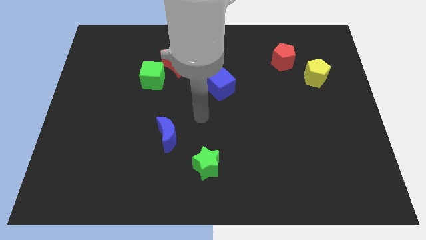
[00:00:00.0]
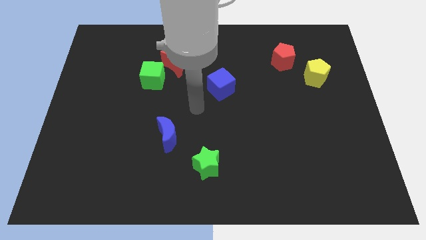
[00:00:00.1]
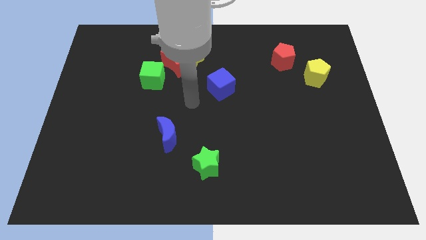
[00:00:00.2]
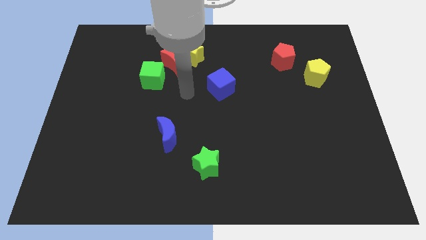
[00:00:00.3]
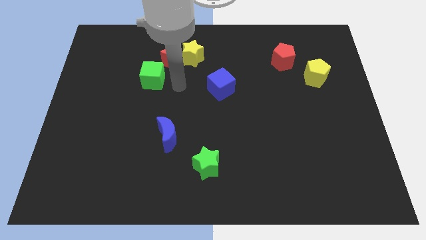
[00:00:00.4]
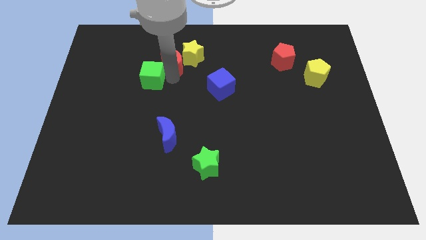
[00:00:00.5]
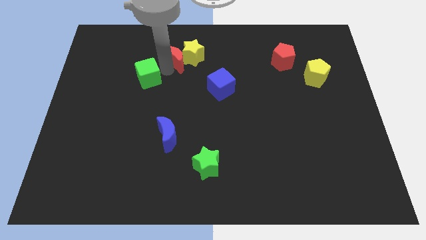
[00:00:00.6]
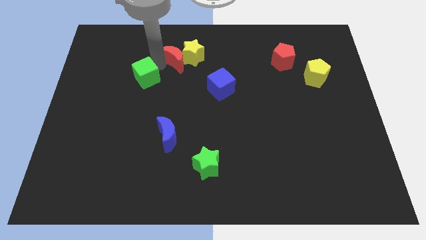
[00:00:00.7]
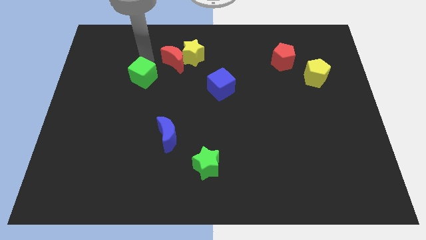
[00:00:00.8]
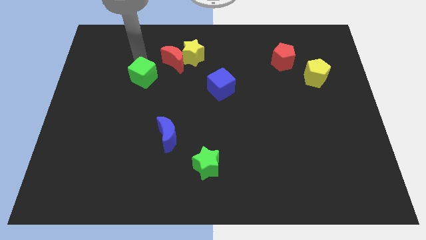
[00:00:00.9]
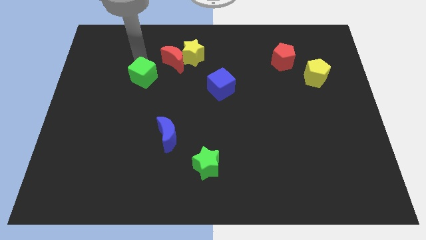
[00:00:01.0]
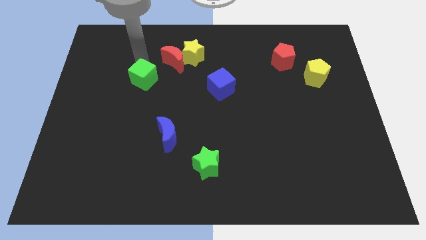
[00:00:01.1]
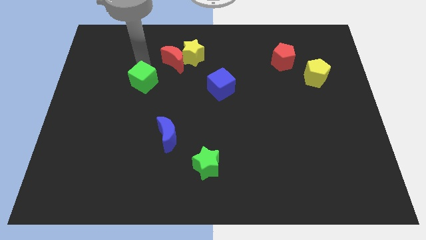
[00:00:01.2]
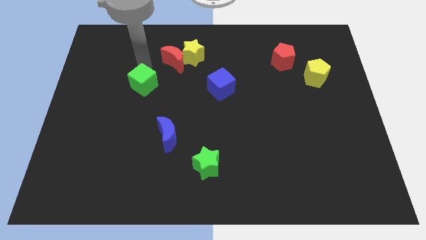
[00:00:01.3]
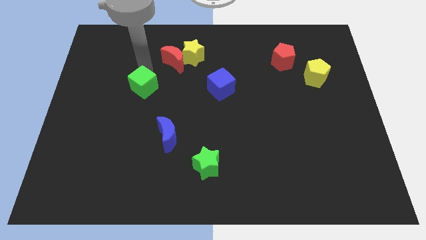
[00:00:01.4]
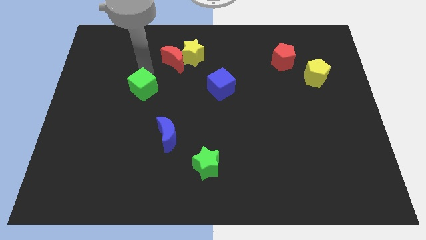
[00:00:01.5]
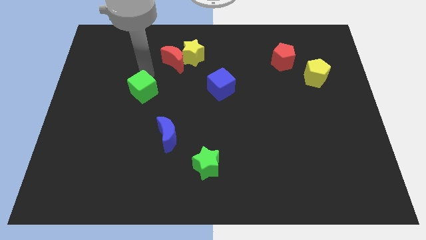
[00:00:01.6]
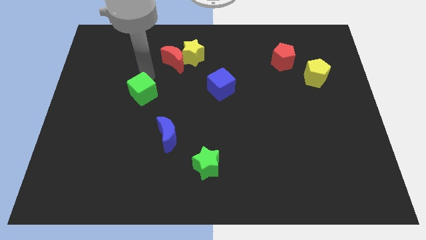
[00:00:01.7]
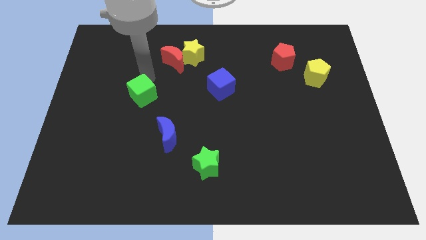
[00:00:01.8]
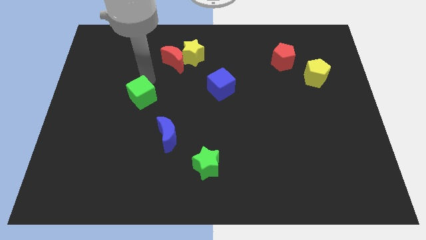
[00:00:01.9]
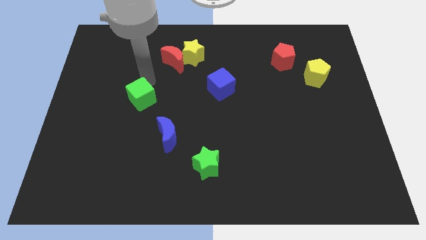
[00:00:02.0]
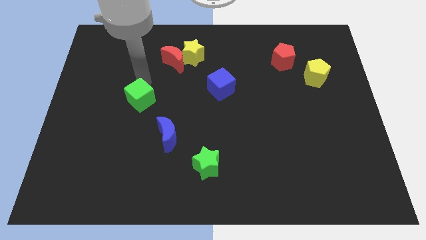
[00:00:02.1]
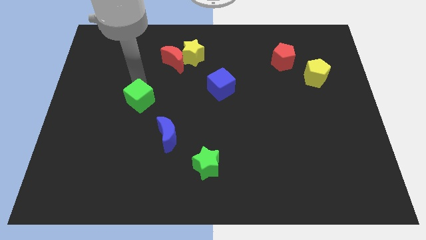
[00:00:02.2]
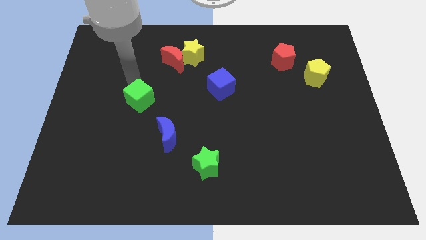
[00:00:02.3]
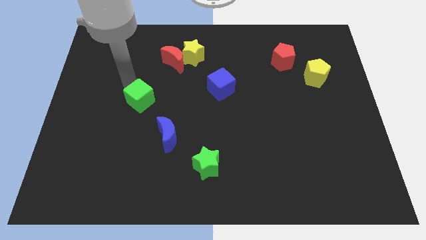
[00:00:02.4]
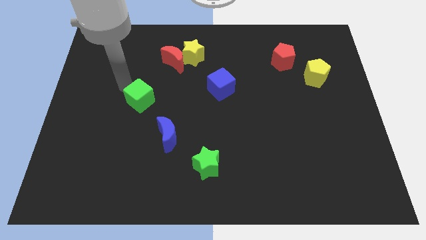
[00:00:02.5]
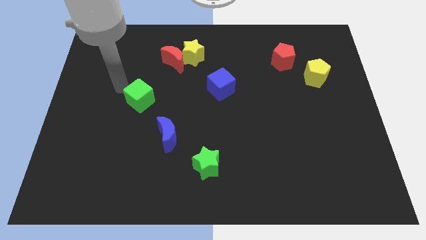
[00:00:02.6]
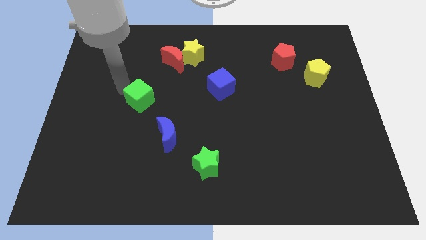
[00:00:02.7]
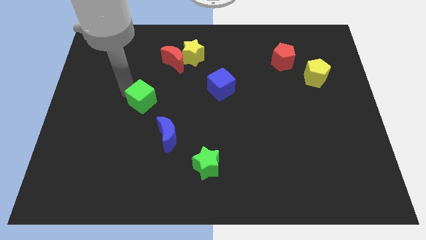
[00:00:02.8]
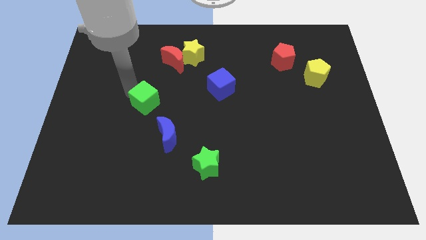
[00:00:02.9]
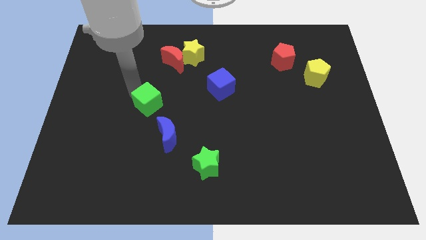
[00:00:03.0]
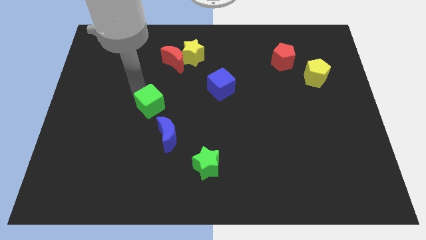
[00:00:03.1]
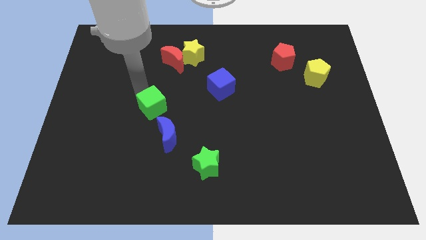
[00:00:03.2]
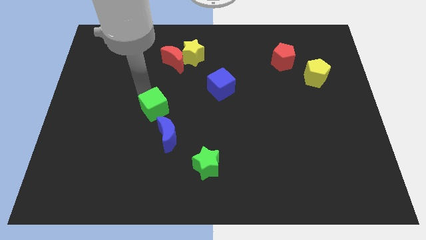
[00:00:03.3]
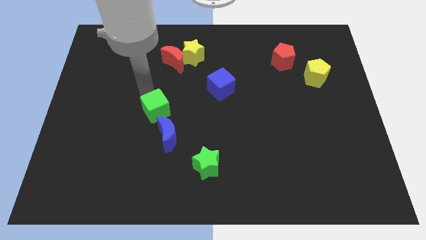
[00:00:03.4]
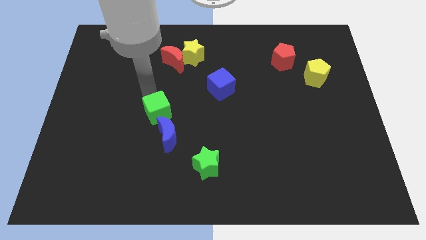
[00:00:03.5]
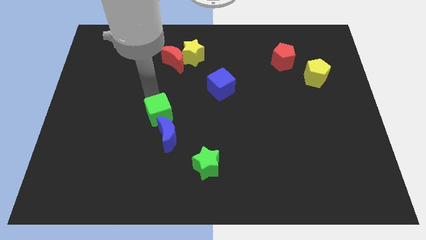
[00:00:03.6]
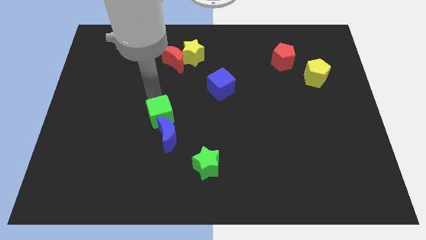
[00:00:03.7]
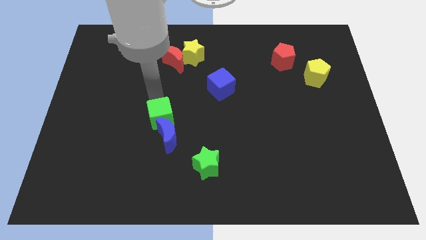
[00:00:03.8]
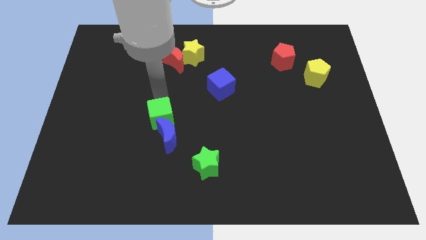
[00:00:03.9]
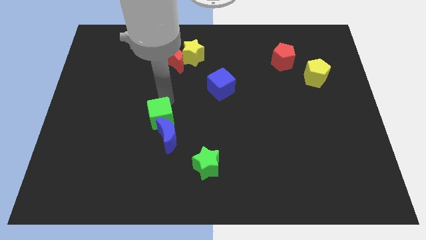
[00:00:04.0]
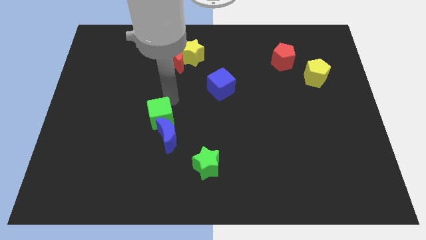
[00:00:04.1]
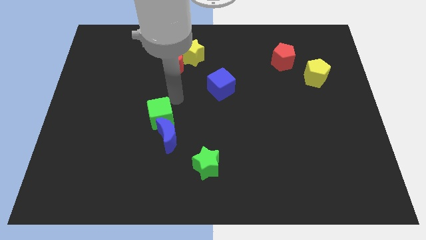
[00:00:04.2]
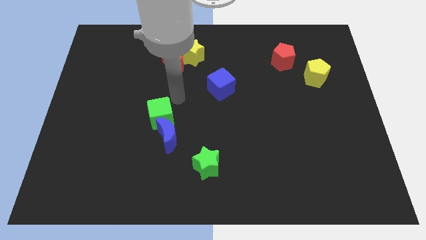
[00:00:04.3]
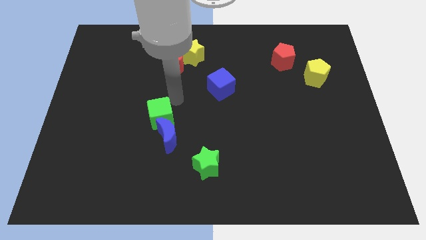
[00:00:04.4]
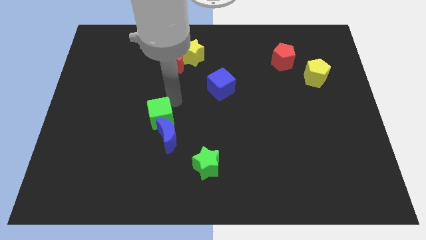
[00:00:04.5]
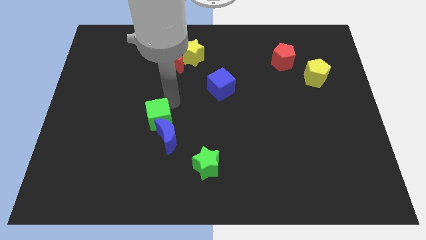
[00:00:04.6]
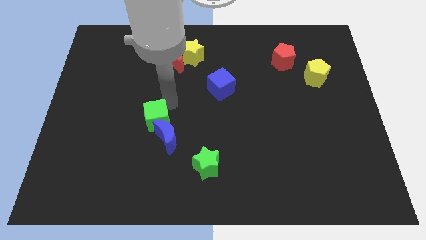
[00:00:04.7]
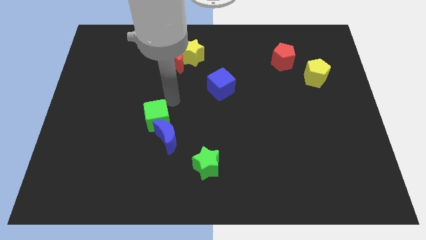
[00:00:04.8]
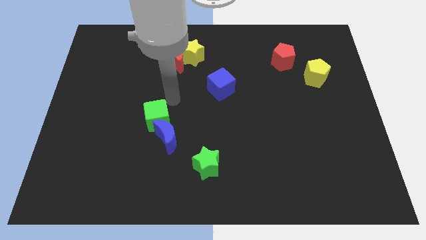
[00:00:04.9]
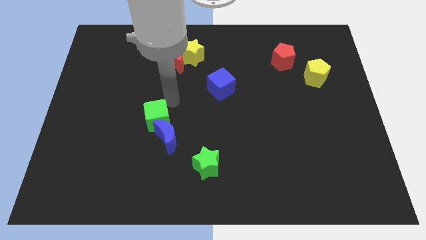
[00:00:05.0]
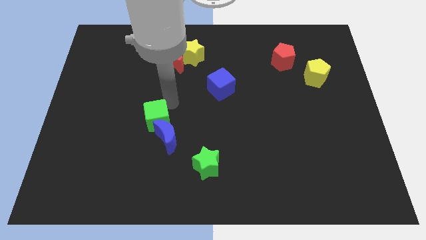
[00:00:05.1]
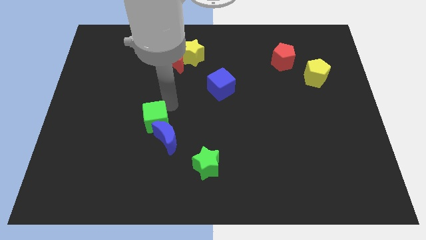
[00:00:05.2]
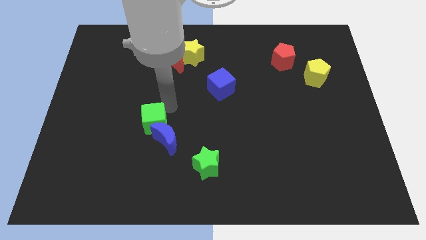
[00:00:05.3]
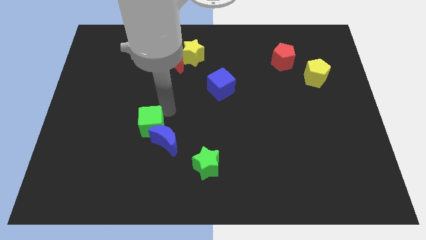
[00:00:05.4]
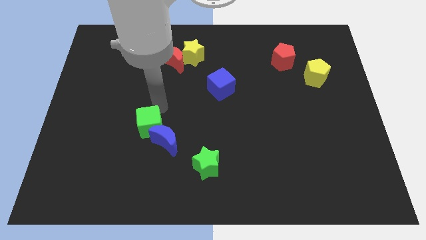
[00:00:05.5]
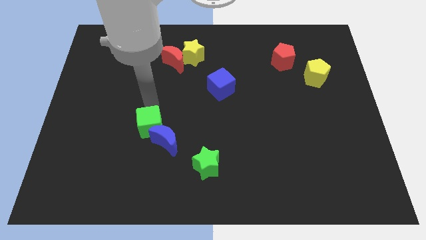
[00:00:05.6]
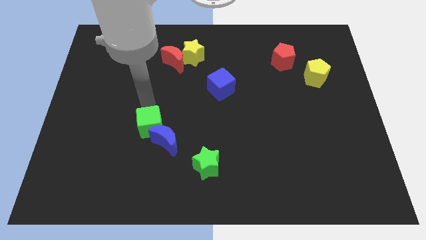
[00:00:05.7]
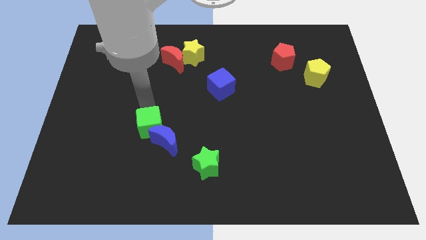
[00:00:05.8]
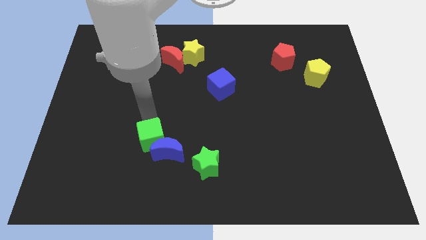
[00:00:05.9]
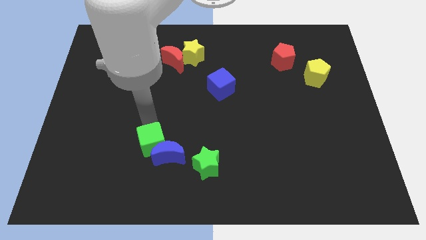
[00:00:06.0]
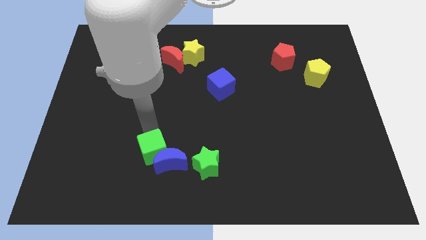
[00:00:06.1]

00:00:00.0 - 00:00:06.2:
slide the green cube left of the green star

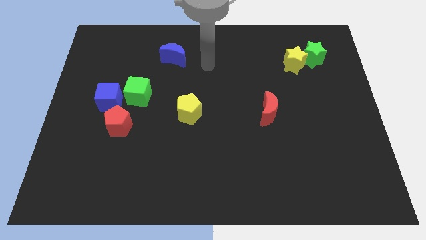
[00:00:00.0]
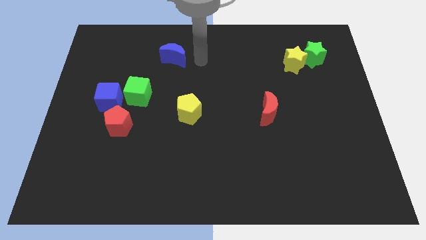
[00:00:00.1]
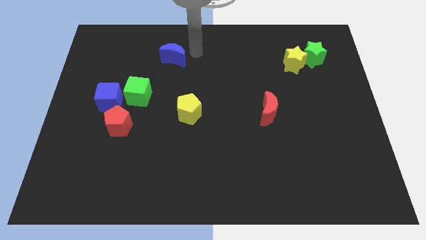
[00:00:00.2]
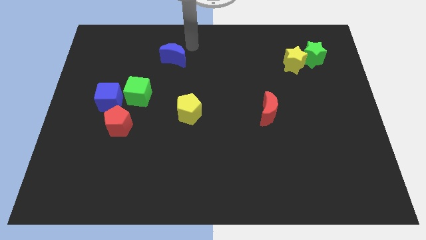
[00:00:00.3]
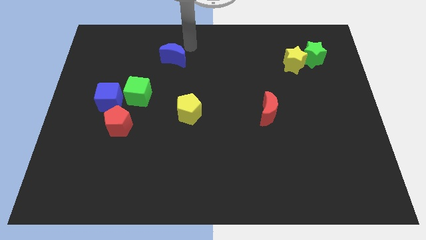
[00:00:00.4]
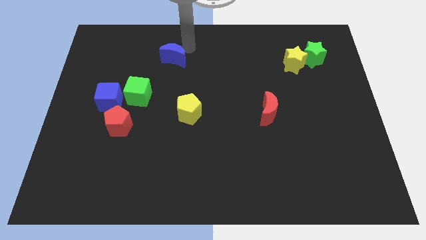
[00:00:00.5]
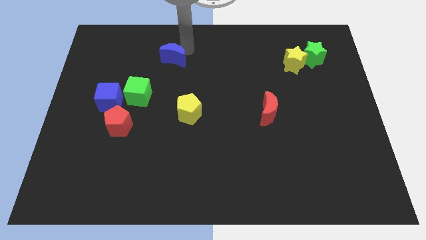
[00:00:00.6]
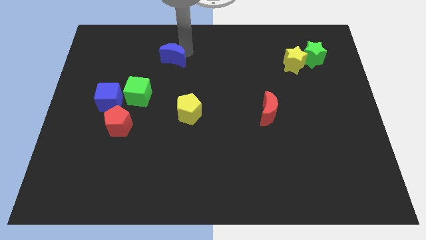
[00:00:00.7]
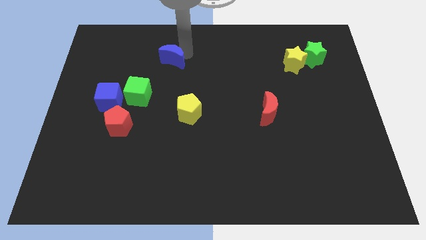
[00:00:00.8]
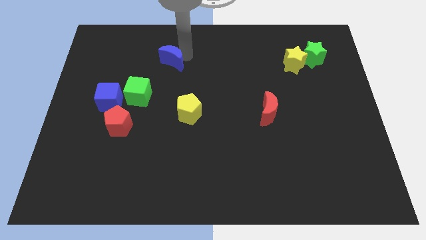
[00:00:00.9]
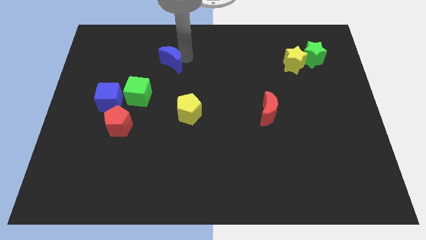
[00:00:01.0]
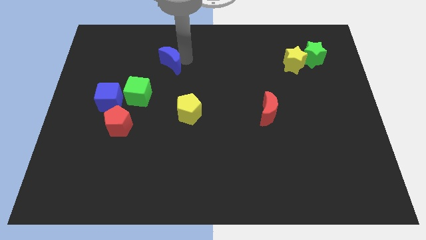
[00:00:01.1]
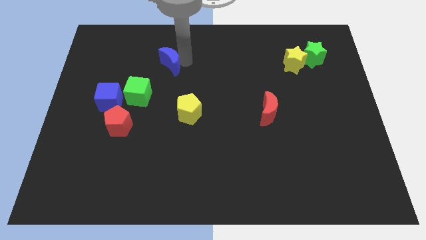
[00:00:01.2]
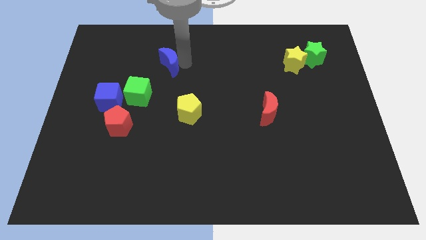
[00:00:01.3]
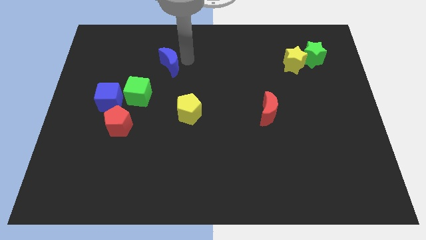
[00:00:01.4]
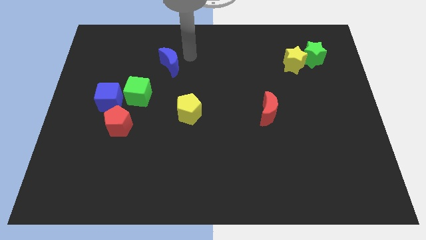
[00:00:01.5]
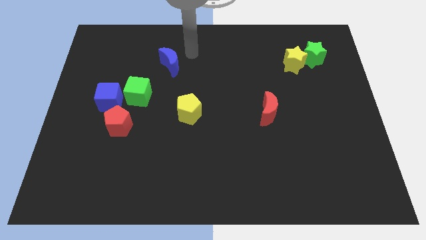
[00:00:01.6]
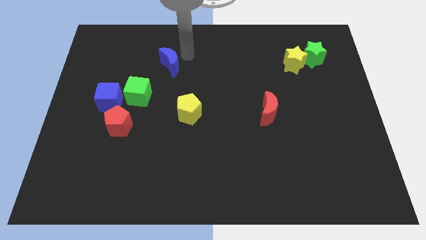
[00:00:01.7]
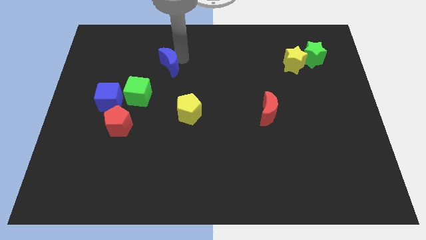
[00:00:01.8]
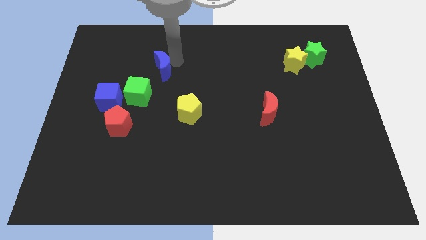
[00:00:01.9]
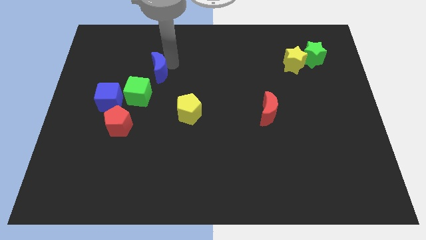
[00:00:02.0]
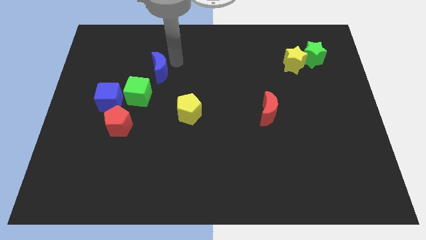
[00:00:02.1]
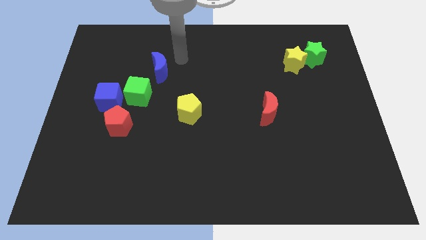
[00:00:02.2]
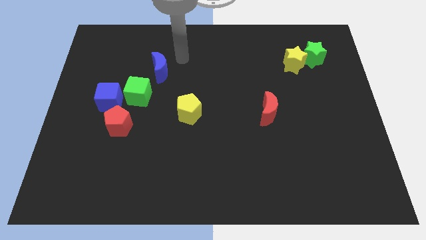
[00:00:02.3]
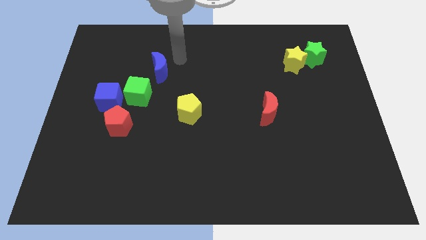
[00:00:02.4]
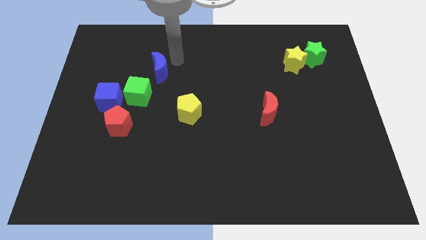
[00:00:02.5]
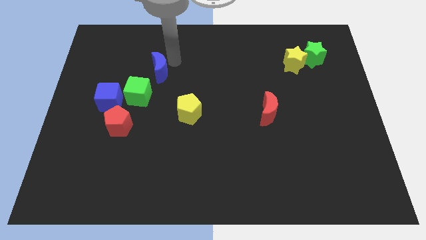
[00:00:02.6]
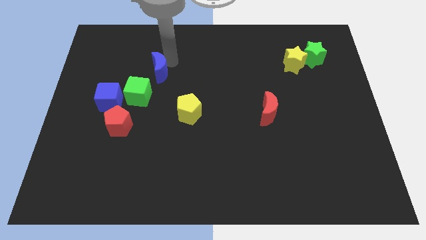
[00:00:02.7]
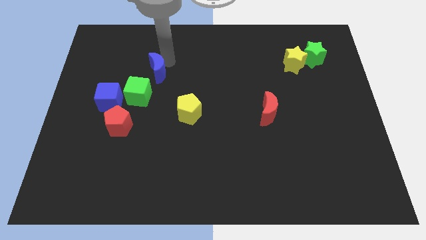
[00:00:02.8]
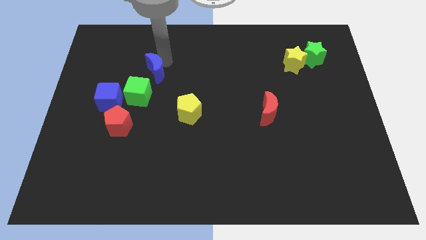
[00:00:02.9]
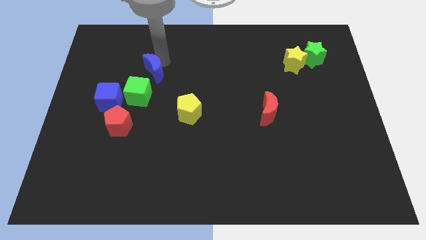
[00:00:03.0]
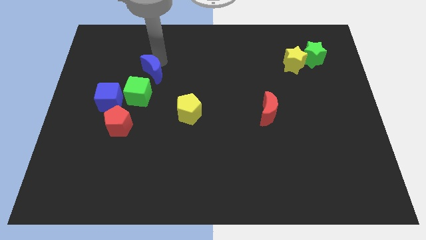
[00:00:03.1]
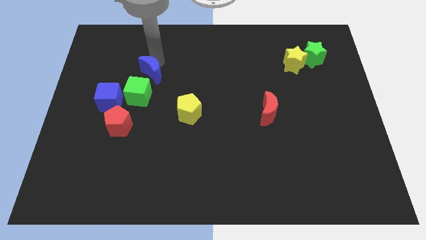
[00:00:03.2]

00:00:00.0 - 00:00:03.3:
slide the blue moon to the top right of the blue cube
